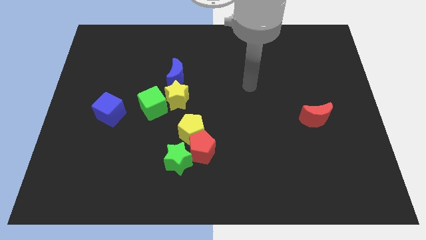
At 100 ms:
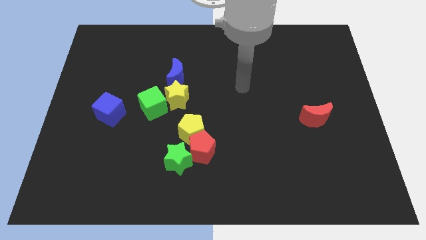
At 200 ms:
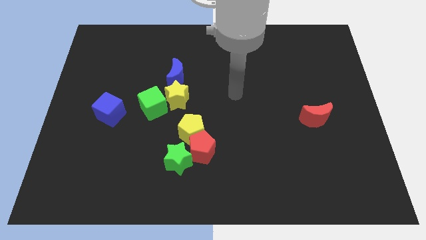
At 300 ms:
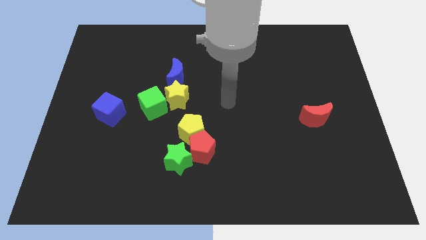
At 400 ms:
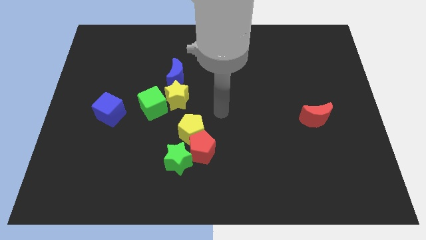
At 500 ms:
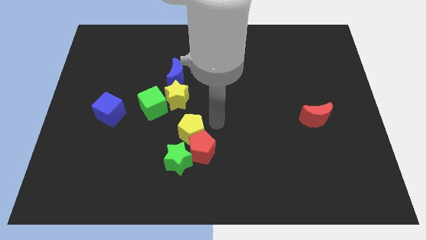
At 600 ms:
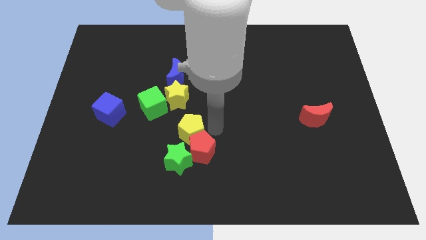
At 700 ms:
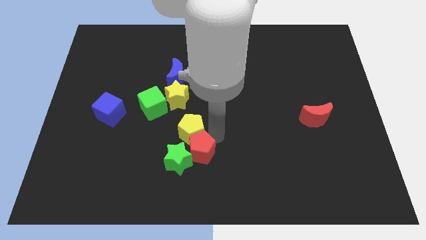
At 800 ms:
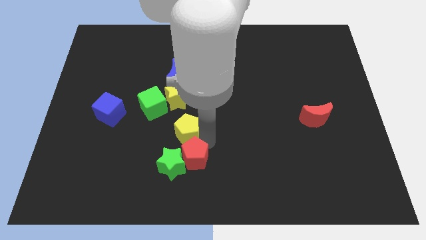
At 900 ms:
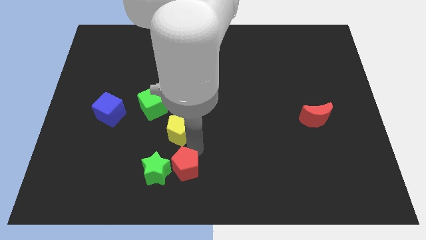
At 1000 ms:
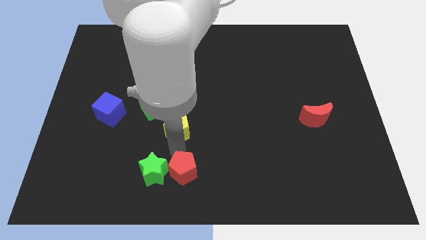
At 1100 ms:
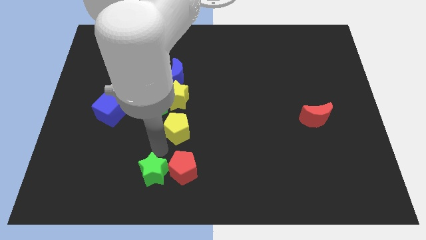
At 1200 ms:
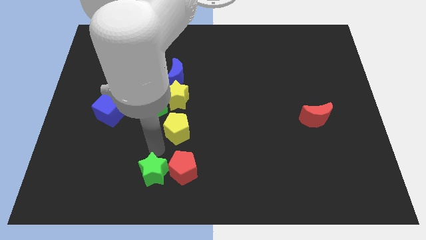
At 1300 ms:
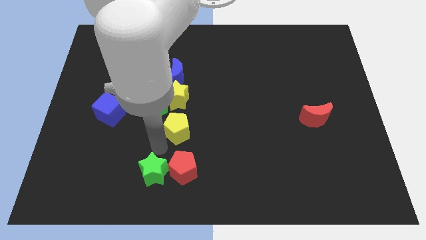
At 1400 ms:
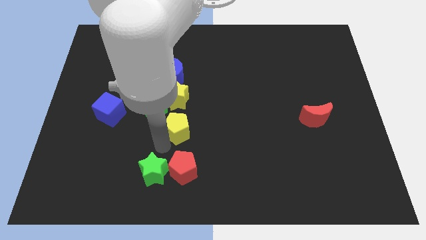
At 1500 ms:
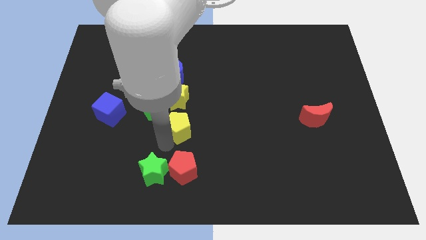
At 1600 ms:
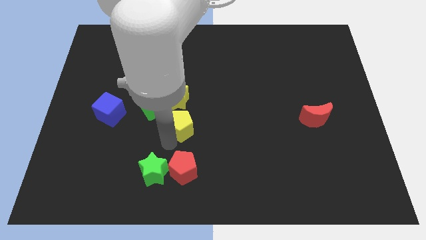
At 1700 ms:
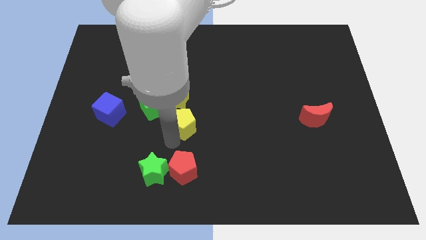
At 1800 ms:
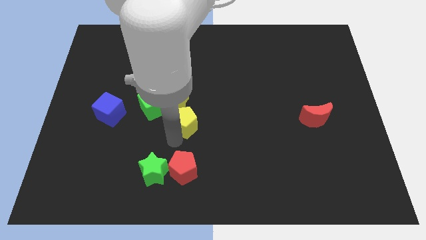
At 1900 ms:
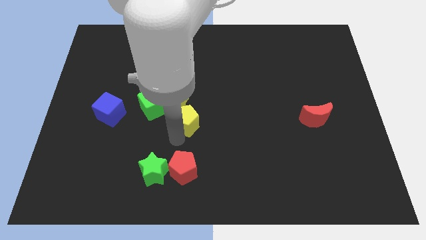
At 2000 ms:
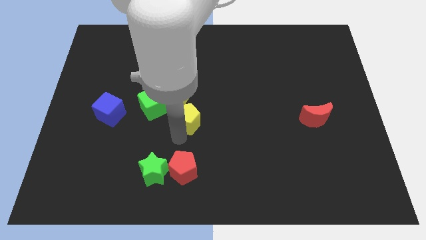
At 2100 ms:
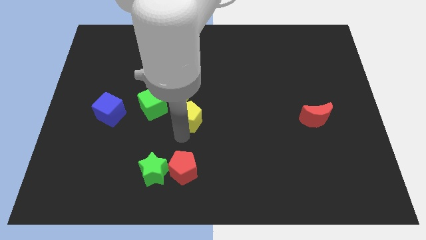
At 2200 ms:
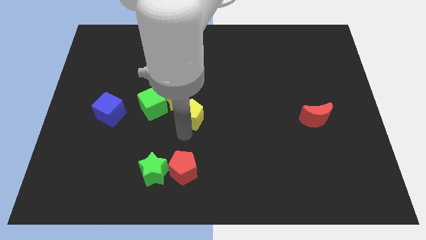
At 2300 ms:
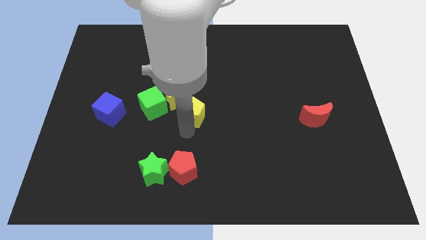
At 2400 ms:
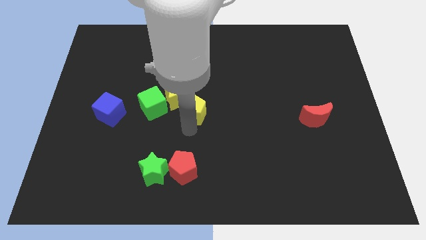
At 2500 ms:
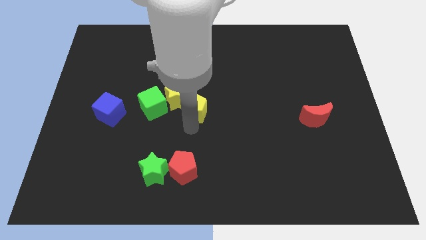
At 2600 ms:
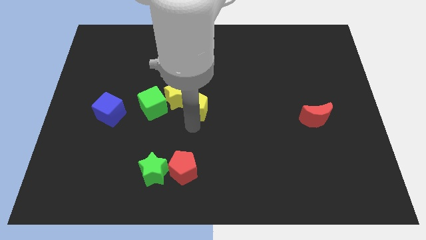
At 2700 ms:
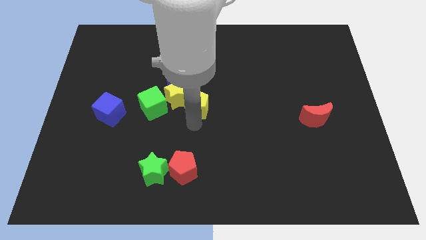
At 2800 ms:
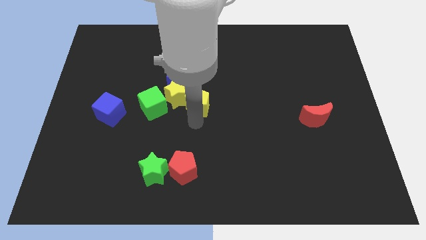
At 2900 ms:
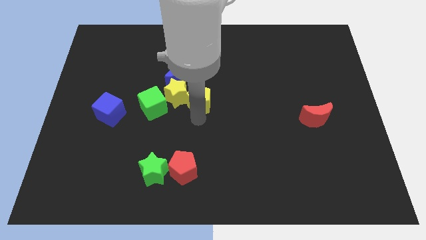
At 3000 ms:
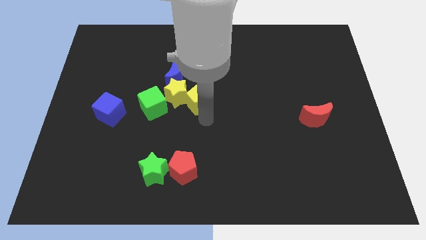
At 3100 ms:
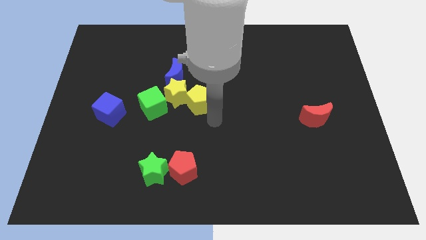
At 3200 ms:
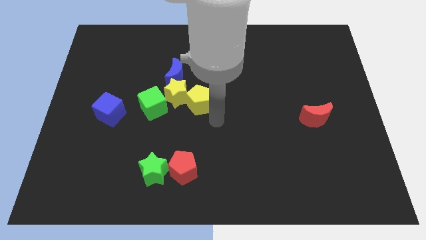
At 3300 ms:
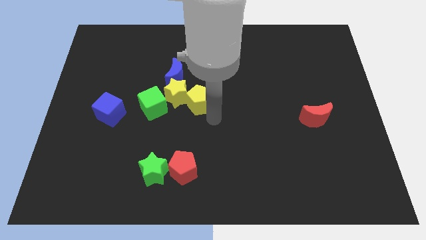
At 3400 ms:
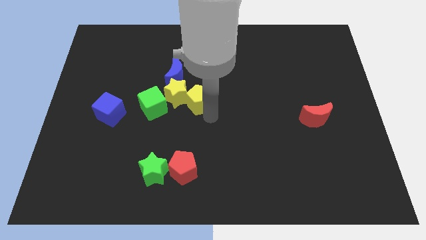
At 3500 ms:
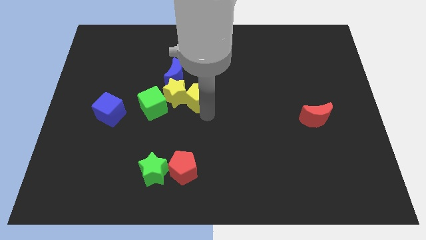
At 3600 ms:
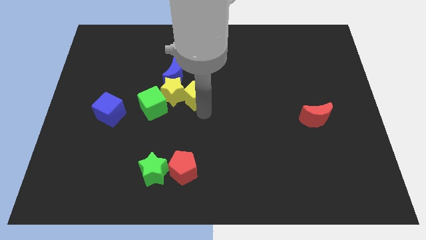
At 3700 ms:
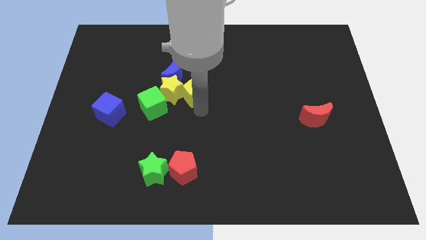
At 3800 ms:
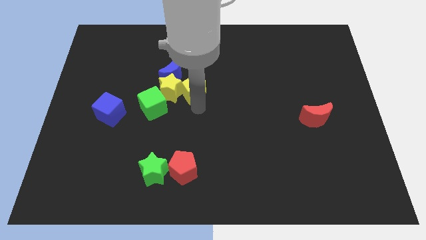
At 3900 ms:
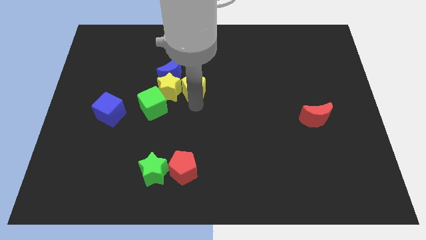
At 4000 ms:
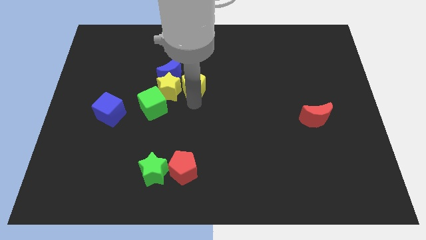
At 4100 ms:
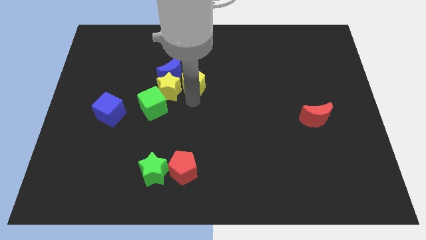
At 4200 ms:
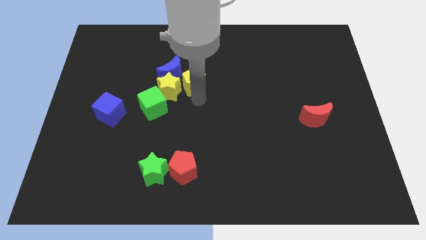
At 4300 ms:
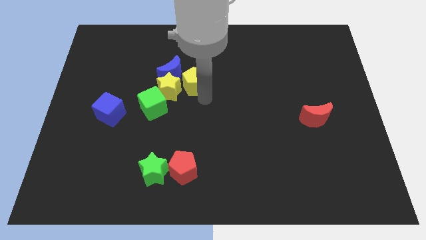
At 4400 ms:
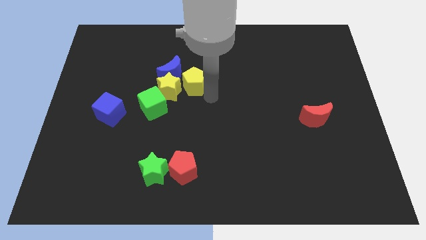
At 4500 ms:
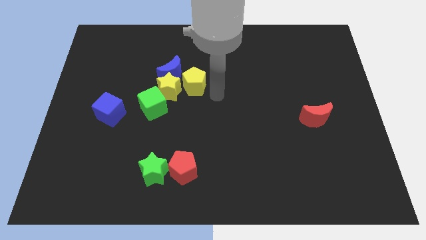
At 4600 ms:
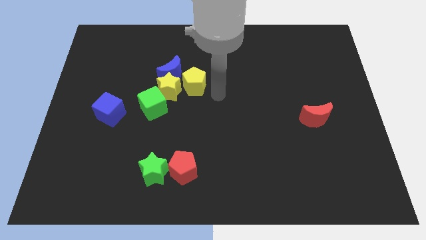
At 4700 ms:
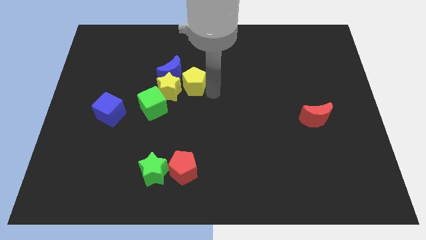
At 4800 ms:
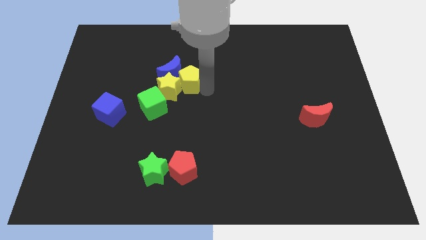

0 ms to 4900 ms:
slide the yellow pentagon next to the blue moon

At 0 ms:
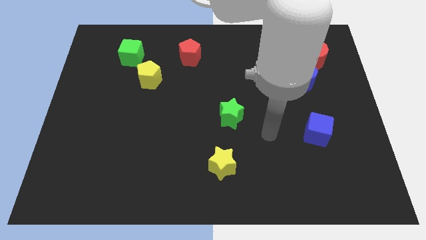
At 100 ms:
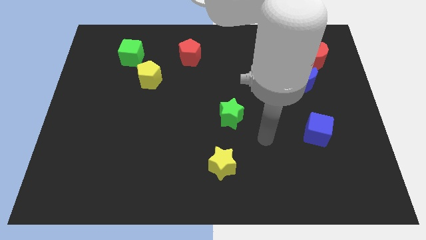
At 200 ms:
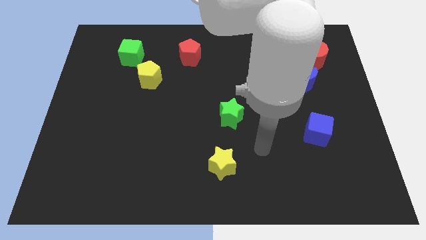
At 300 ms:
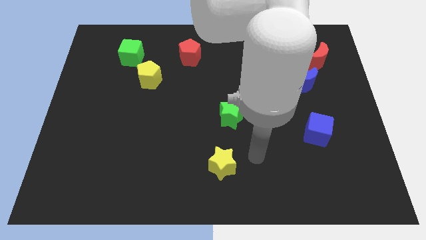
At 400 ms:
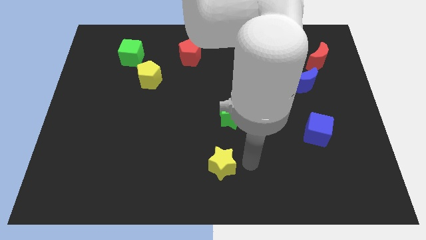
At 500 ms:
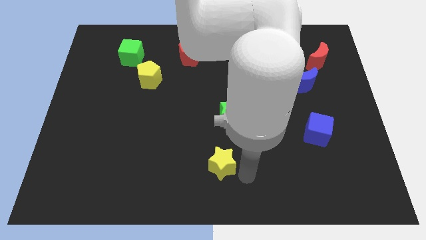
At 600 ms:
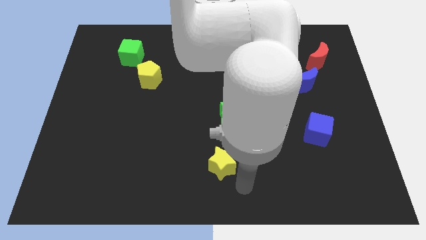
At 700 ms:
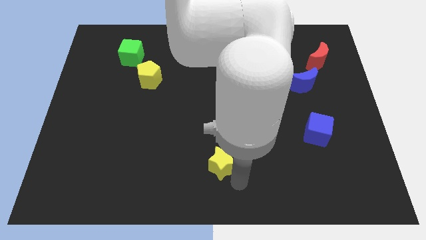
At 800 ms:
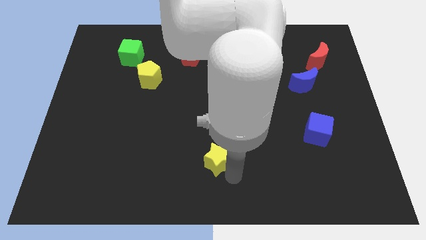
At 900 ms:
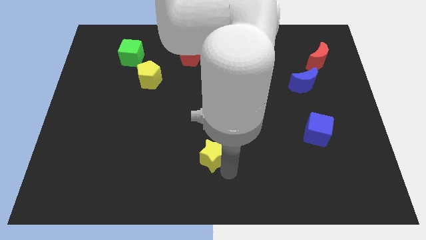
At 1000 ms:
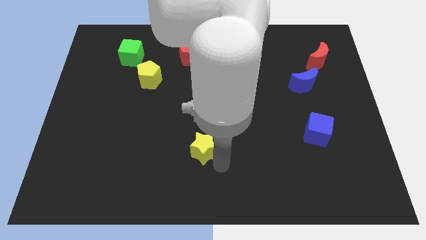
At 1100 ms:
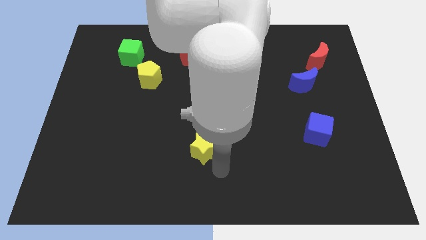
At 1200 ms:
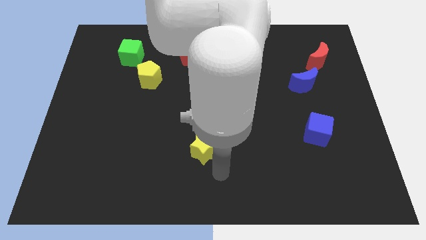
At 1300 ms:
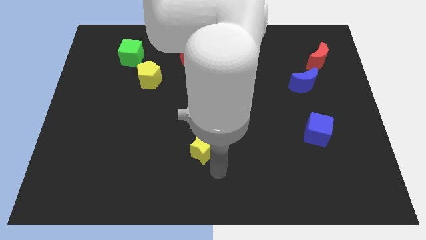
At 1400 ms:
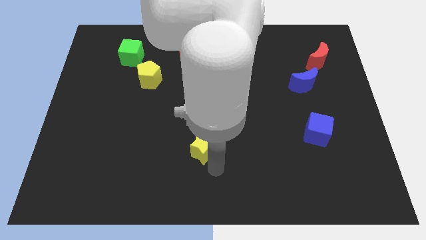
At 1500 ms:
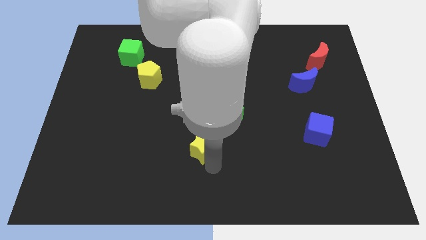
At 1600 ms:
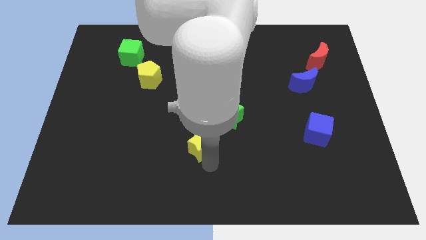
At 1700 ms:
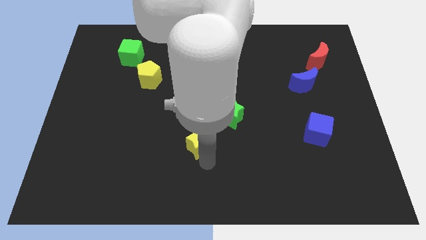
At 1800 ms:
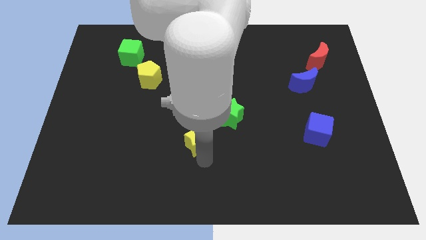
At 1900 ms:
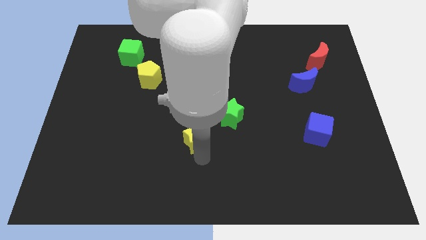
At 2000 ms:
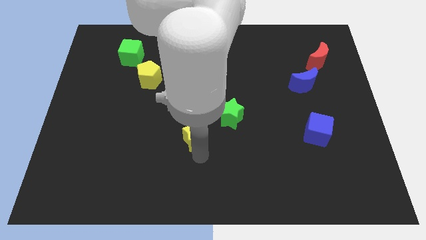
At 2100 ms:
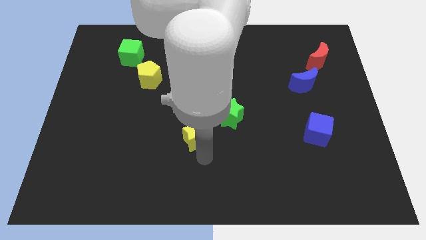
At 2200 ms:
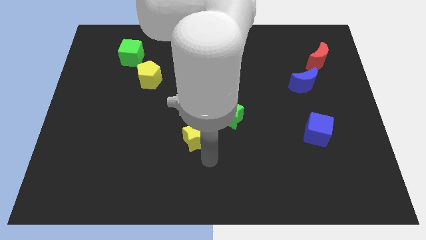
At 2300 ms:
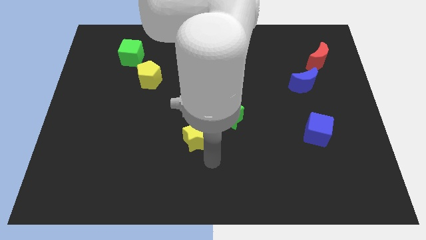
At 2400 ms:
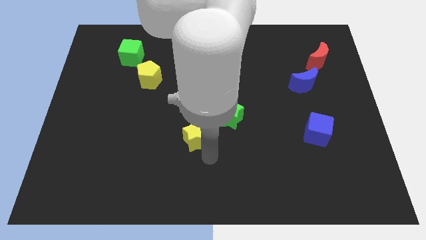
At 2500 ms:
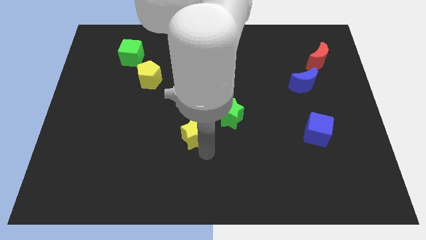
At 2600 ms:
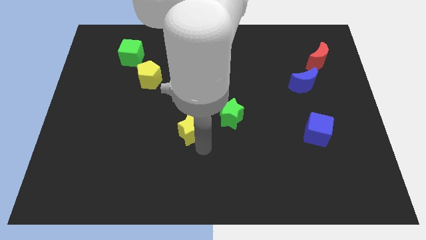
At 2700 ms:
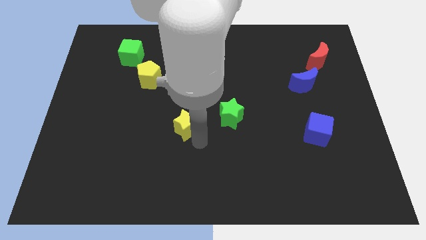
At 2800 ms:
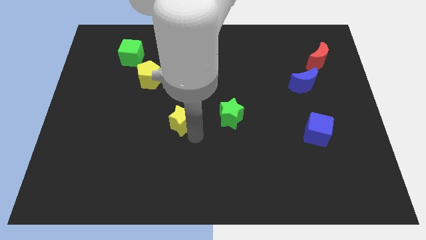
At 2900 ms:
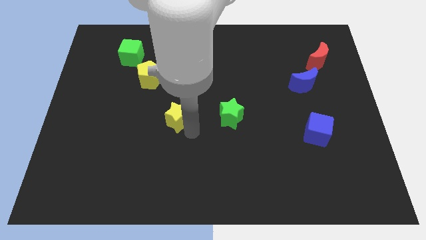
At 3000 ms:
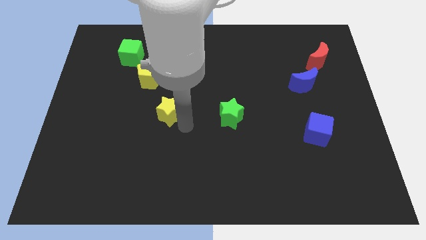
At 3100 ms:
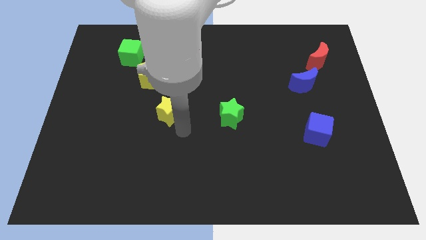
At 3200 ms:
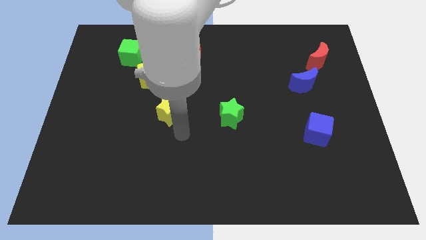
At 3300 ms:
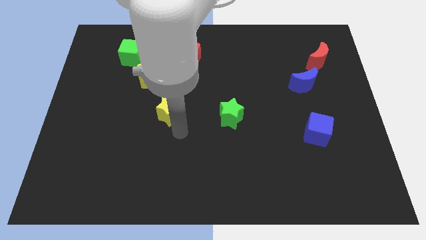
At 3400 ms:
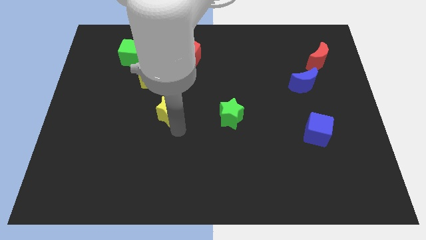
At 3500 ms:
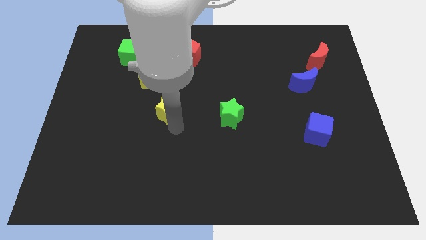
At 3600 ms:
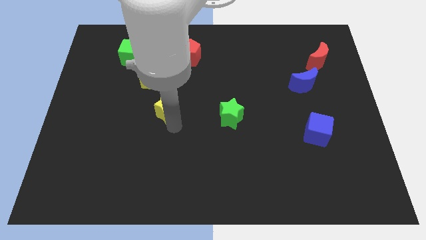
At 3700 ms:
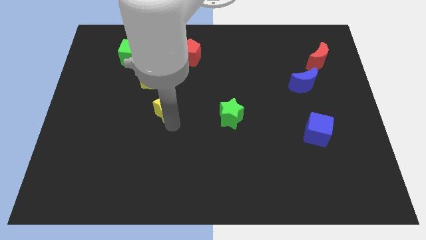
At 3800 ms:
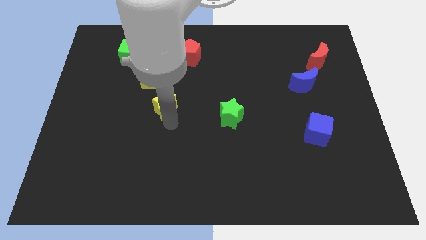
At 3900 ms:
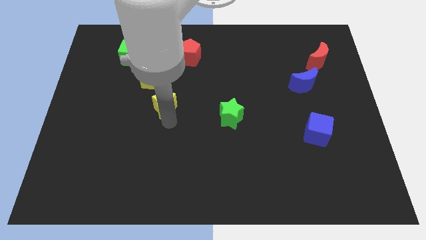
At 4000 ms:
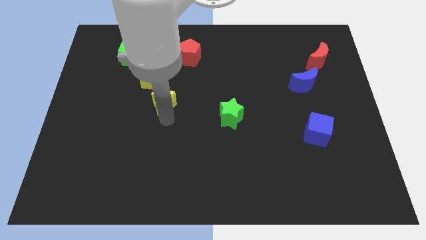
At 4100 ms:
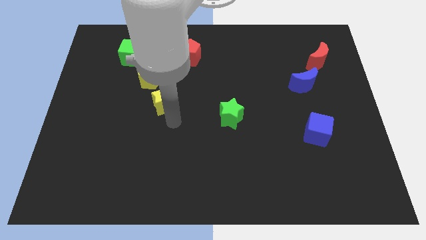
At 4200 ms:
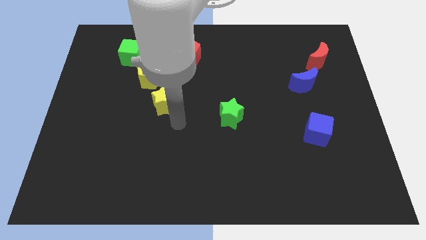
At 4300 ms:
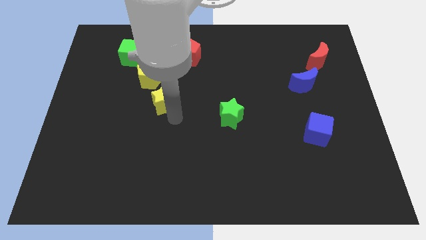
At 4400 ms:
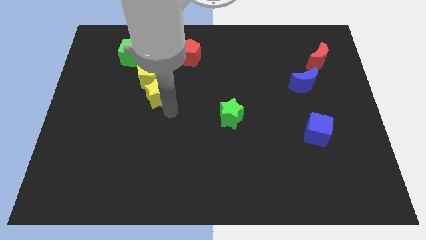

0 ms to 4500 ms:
move the yellow star to the yellow pentagon
